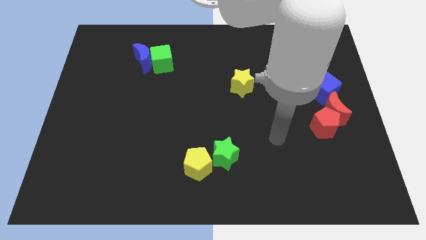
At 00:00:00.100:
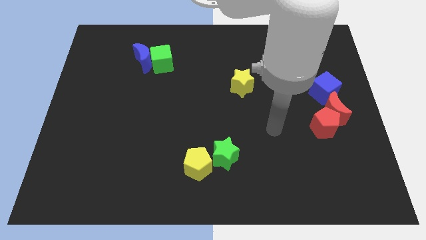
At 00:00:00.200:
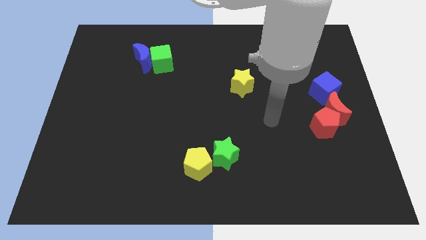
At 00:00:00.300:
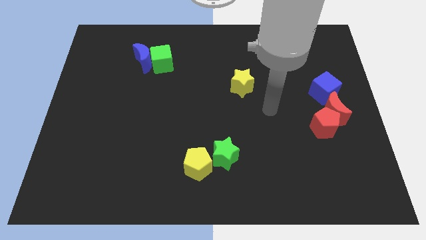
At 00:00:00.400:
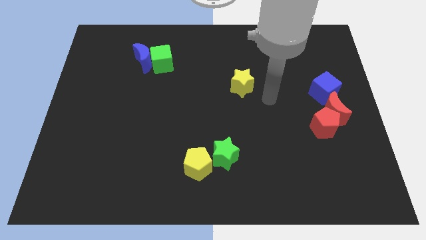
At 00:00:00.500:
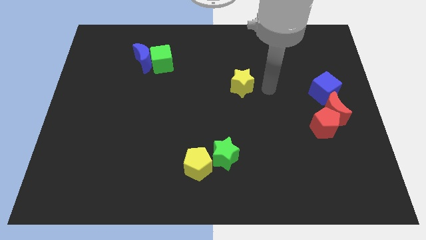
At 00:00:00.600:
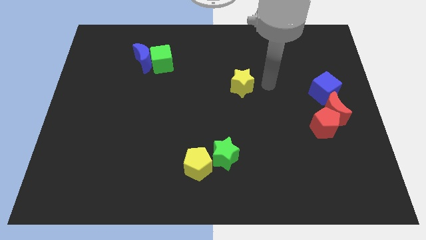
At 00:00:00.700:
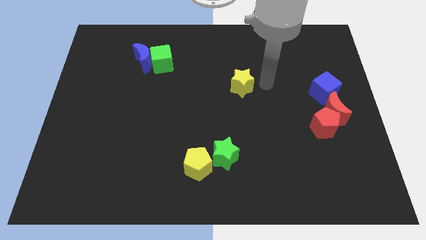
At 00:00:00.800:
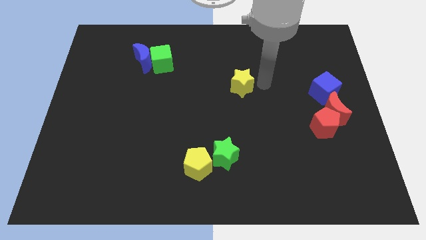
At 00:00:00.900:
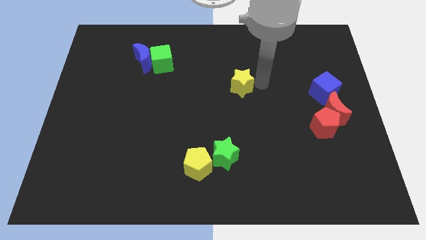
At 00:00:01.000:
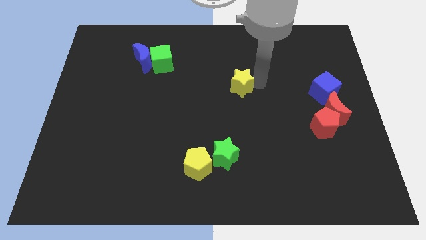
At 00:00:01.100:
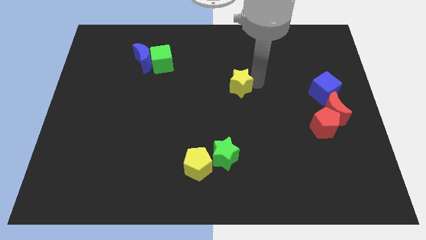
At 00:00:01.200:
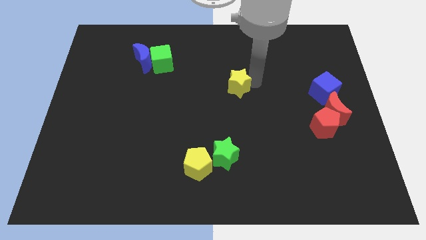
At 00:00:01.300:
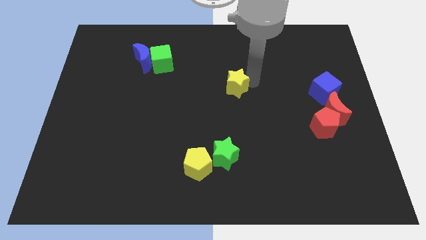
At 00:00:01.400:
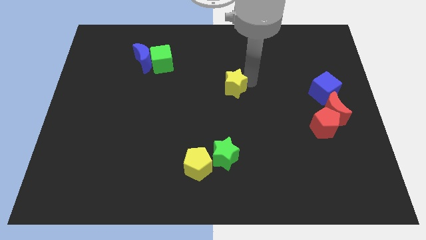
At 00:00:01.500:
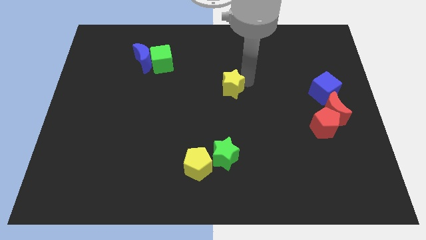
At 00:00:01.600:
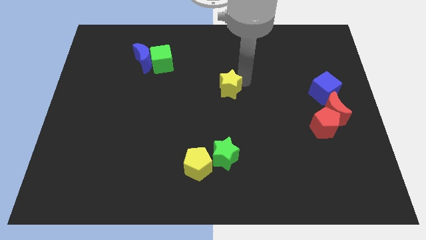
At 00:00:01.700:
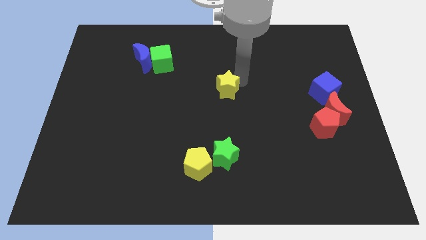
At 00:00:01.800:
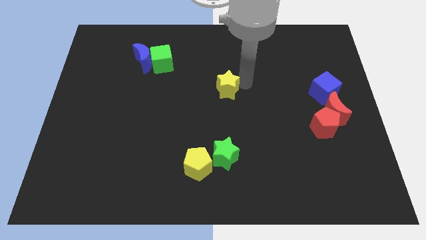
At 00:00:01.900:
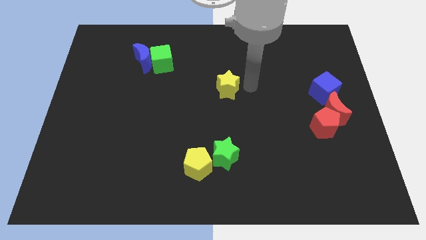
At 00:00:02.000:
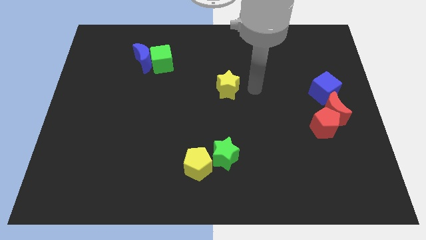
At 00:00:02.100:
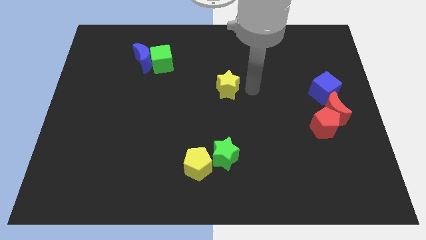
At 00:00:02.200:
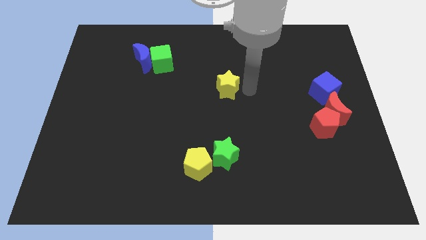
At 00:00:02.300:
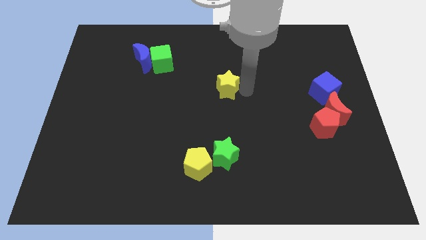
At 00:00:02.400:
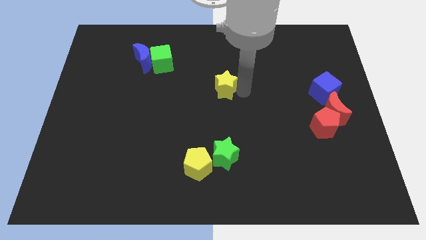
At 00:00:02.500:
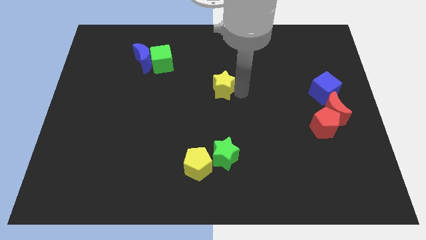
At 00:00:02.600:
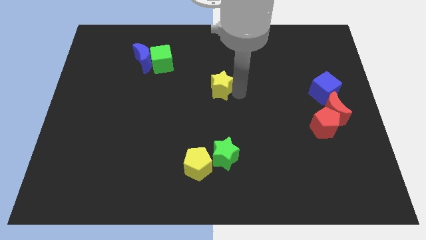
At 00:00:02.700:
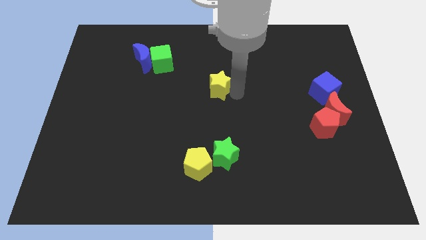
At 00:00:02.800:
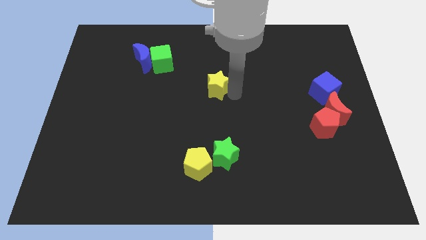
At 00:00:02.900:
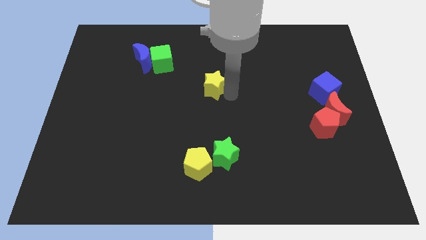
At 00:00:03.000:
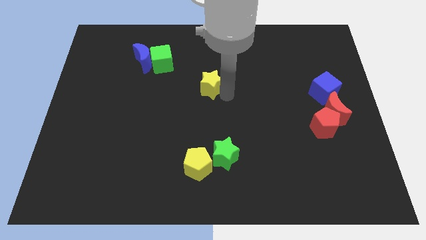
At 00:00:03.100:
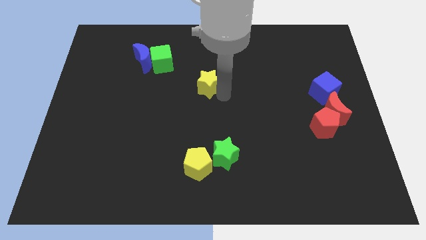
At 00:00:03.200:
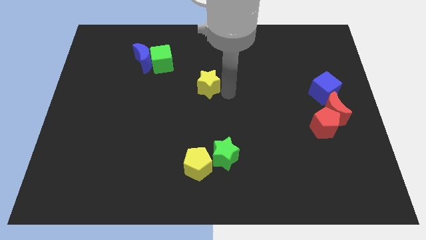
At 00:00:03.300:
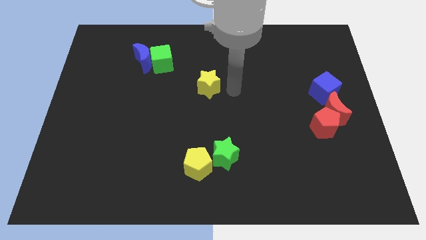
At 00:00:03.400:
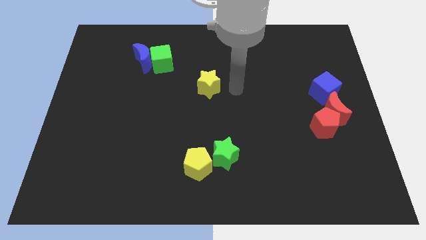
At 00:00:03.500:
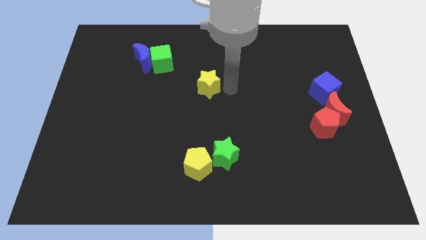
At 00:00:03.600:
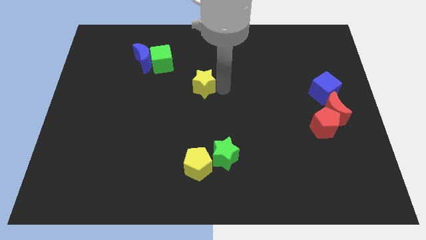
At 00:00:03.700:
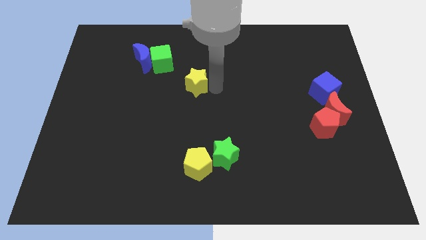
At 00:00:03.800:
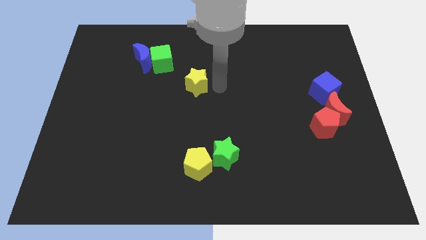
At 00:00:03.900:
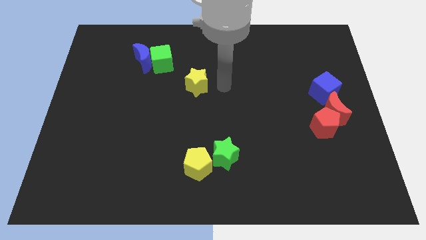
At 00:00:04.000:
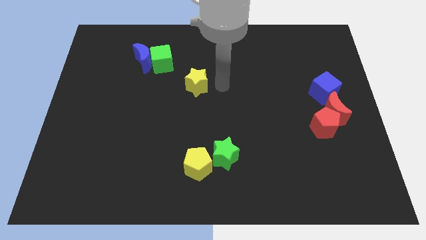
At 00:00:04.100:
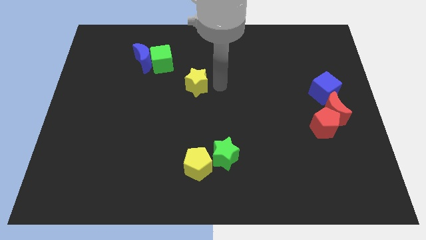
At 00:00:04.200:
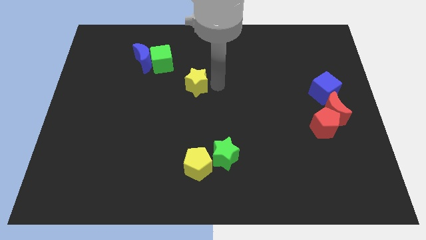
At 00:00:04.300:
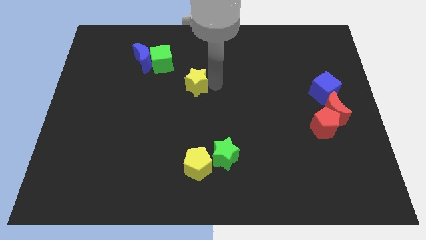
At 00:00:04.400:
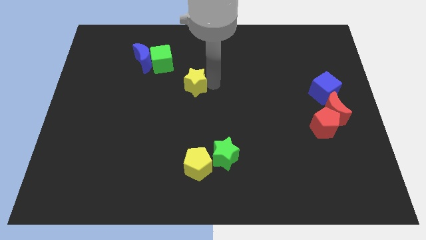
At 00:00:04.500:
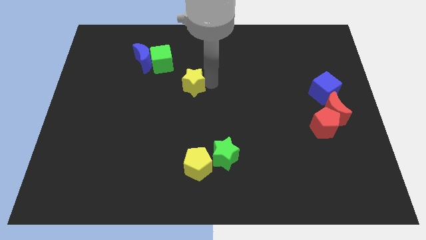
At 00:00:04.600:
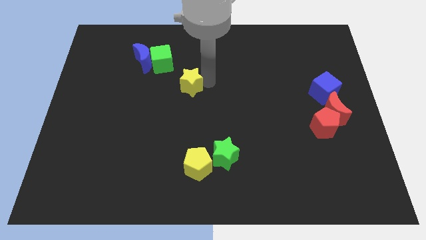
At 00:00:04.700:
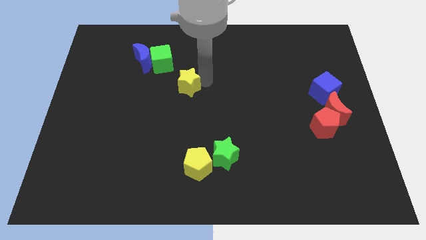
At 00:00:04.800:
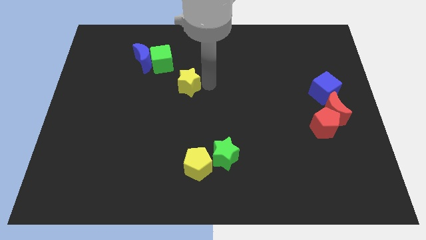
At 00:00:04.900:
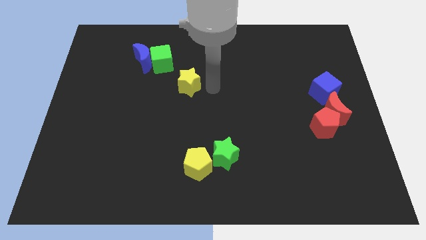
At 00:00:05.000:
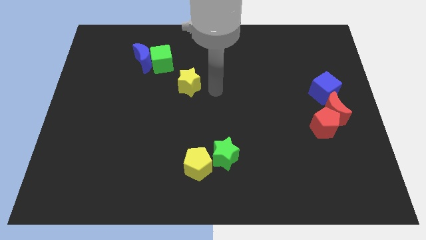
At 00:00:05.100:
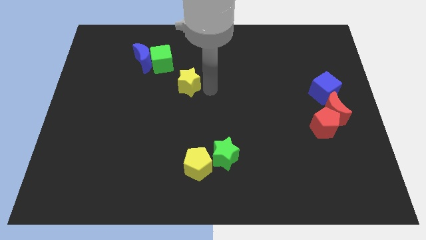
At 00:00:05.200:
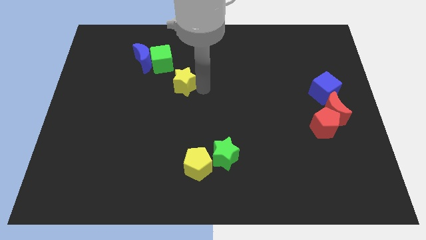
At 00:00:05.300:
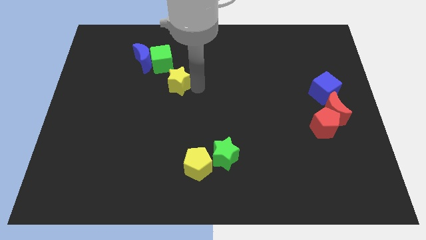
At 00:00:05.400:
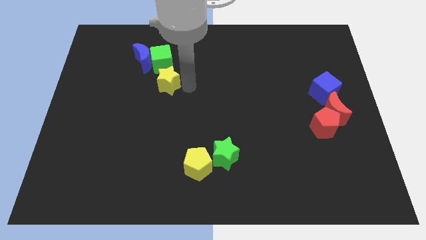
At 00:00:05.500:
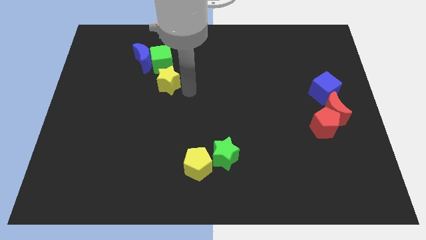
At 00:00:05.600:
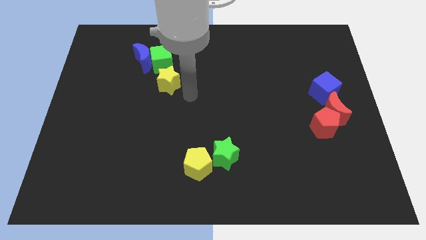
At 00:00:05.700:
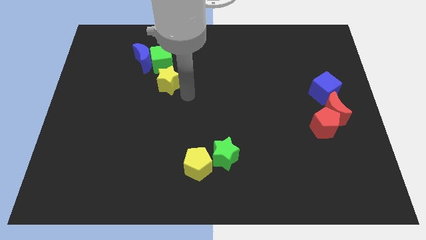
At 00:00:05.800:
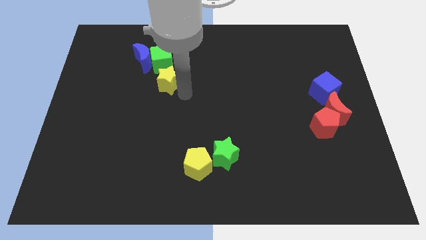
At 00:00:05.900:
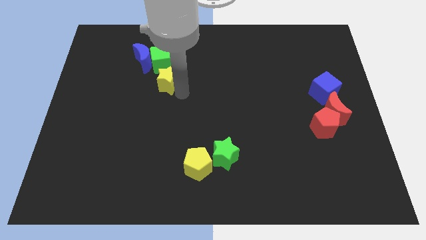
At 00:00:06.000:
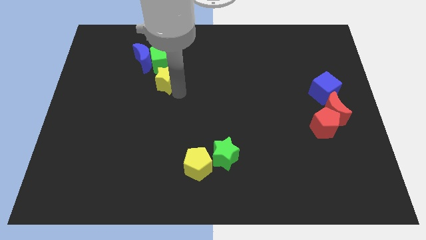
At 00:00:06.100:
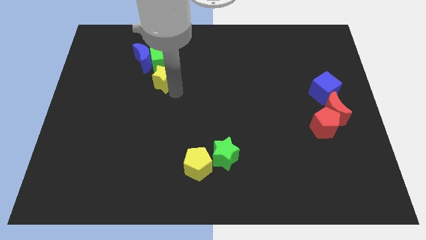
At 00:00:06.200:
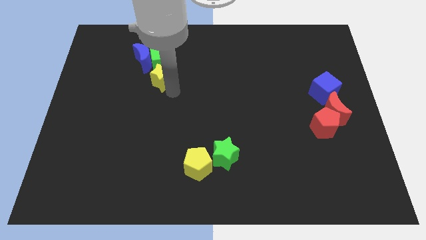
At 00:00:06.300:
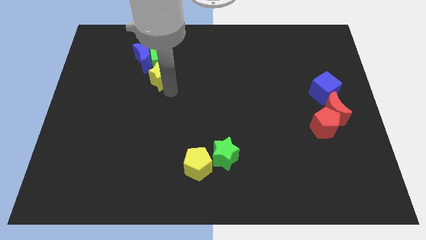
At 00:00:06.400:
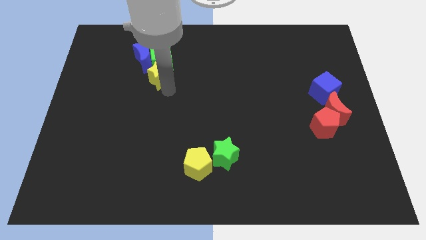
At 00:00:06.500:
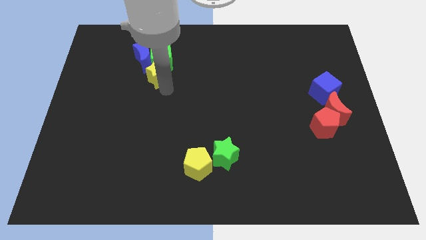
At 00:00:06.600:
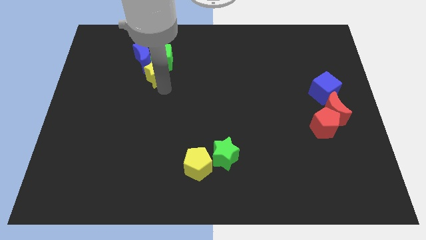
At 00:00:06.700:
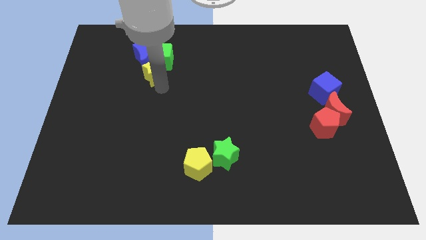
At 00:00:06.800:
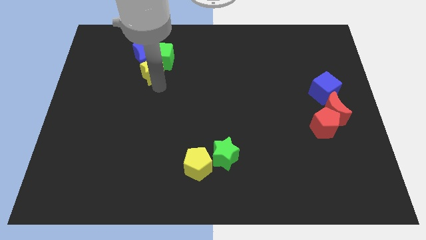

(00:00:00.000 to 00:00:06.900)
slide the yellow star close to the blue moon
